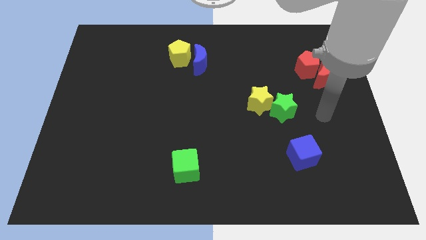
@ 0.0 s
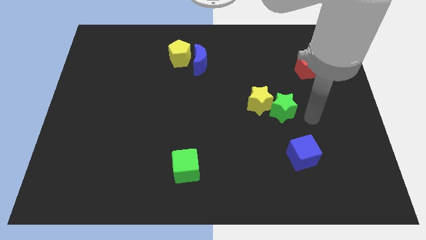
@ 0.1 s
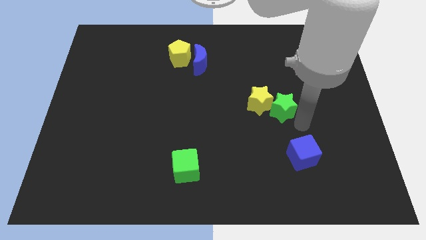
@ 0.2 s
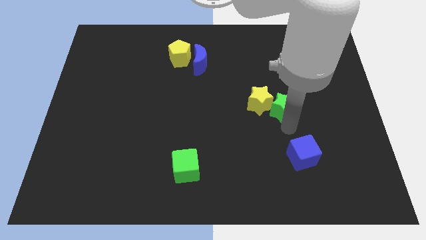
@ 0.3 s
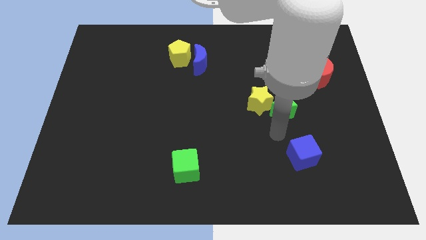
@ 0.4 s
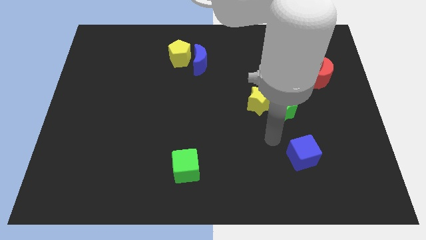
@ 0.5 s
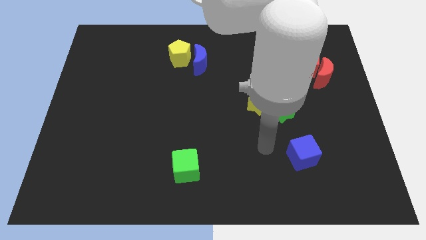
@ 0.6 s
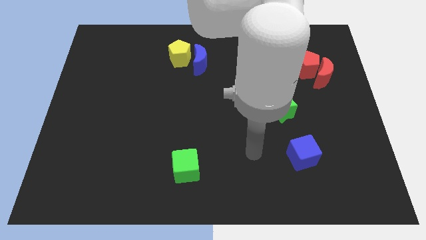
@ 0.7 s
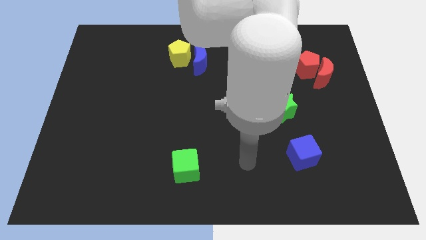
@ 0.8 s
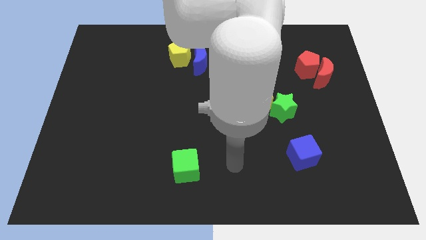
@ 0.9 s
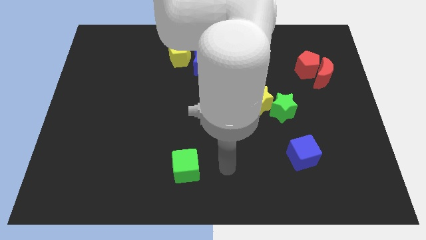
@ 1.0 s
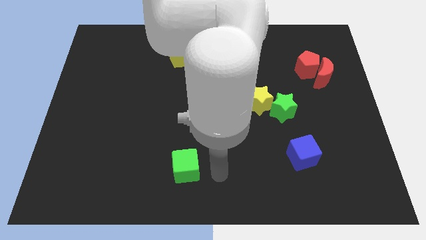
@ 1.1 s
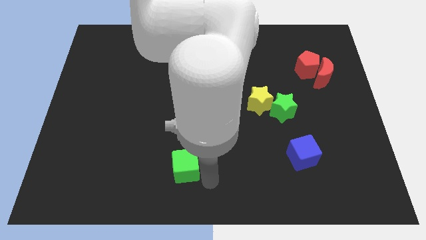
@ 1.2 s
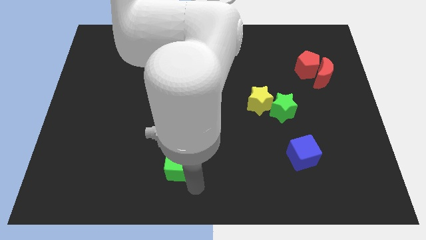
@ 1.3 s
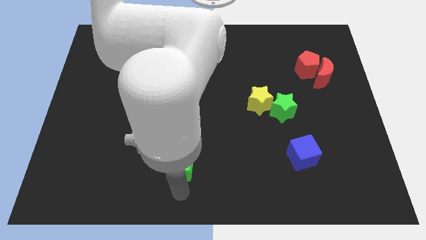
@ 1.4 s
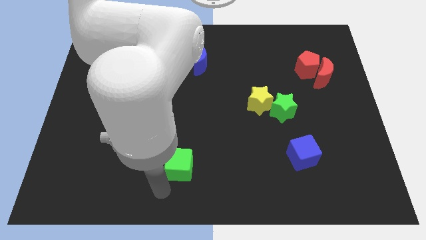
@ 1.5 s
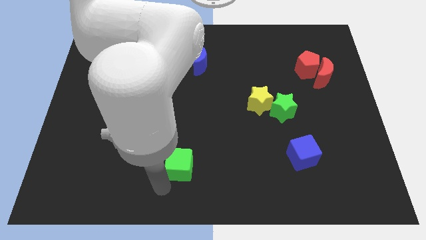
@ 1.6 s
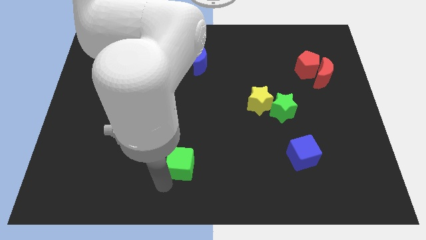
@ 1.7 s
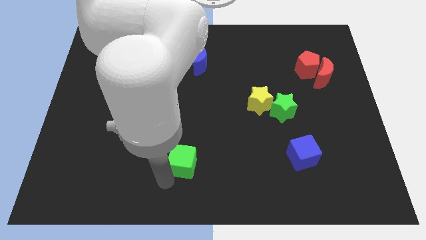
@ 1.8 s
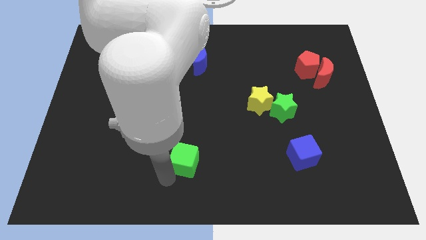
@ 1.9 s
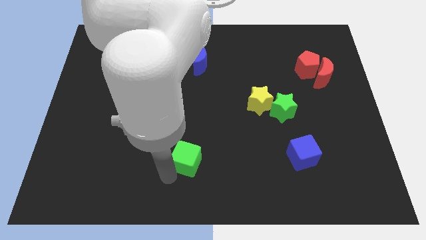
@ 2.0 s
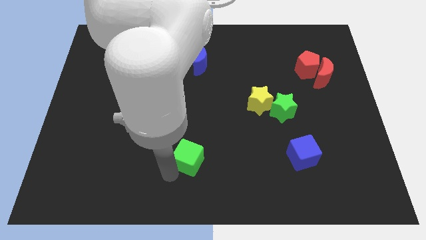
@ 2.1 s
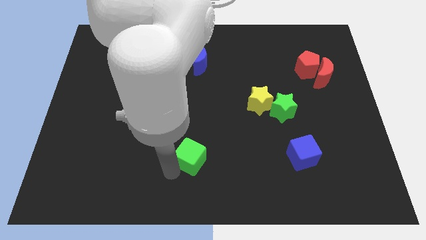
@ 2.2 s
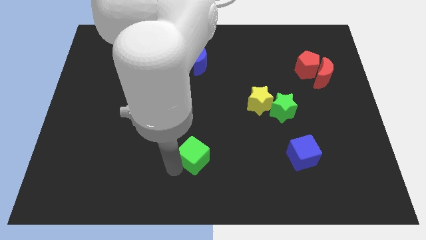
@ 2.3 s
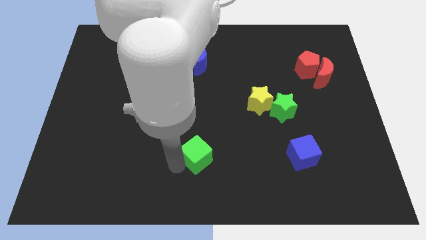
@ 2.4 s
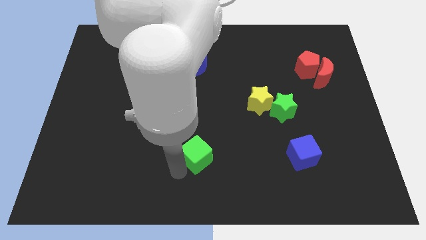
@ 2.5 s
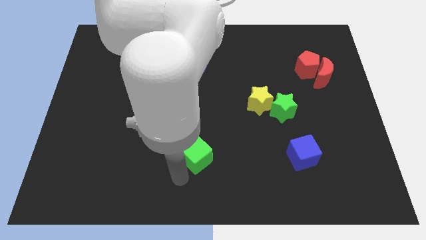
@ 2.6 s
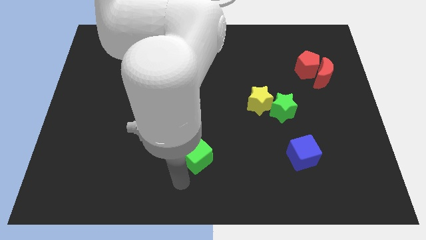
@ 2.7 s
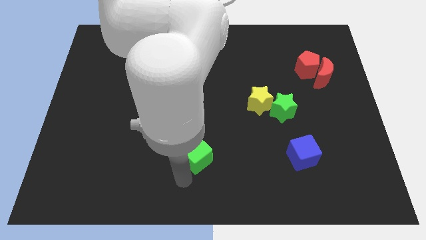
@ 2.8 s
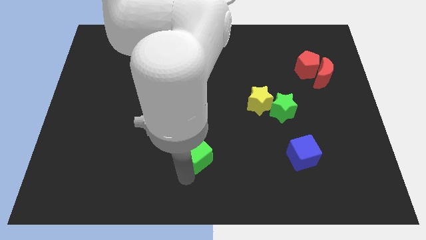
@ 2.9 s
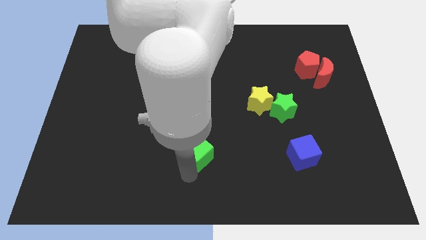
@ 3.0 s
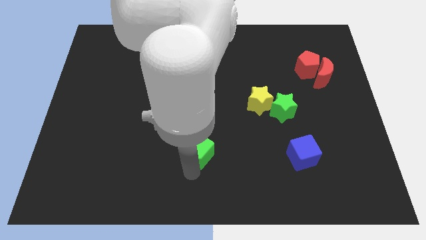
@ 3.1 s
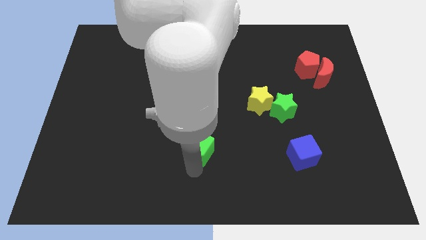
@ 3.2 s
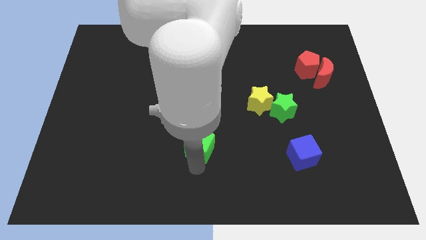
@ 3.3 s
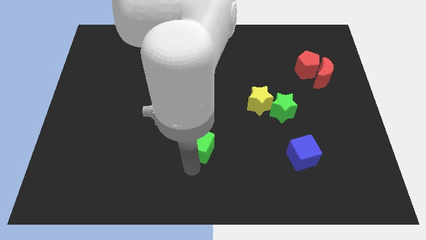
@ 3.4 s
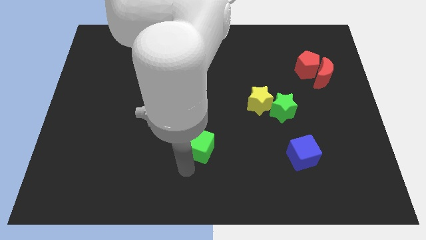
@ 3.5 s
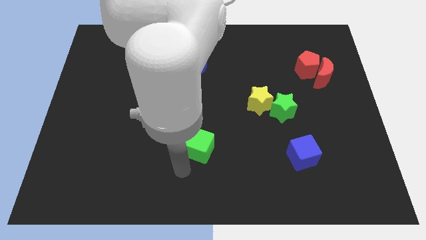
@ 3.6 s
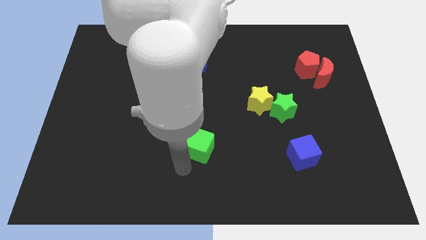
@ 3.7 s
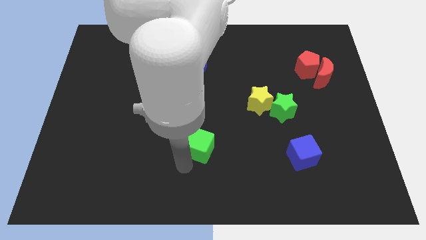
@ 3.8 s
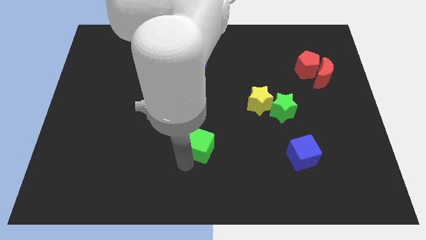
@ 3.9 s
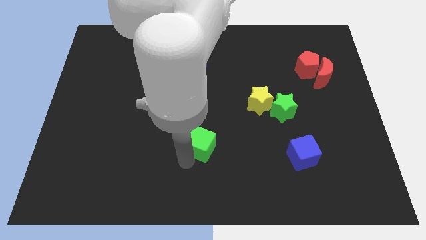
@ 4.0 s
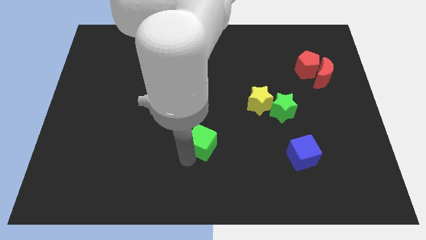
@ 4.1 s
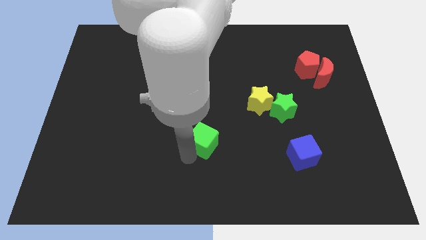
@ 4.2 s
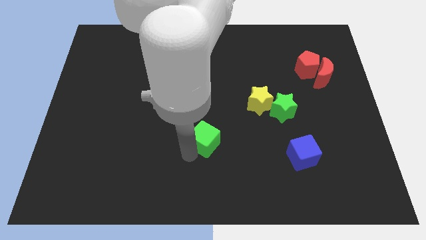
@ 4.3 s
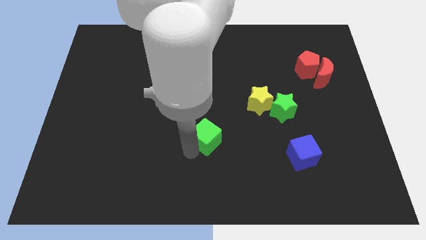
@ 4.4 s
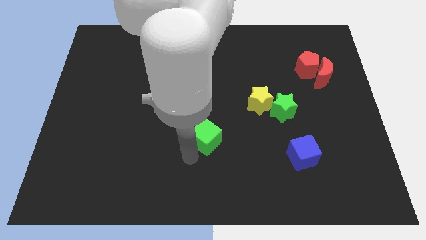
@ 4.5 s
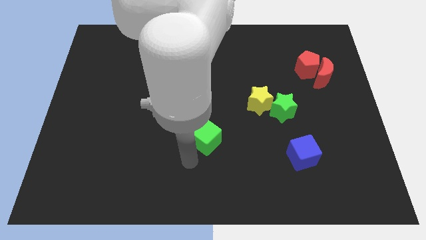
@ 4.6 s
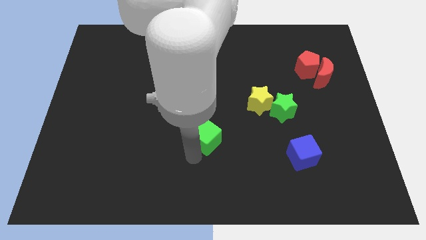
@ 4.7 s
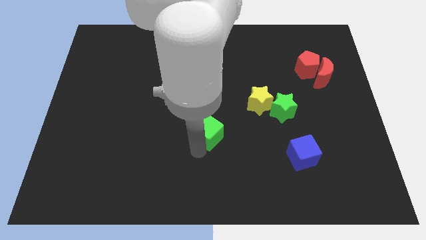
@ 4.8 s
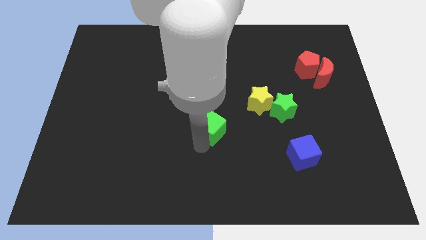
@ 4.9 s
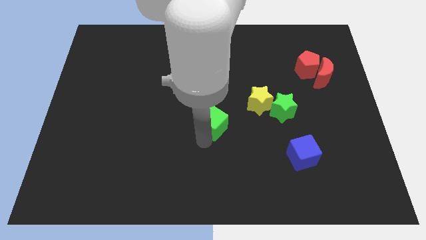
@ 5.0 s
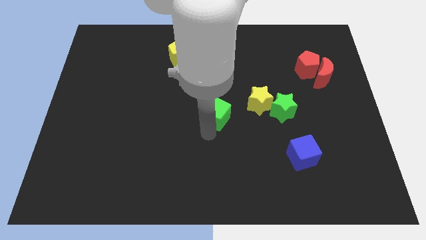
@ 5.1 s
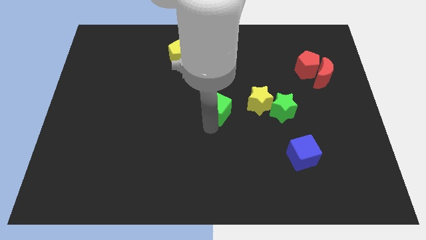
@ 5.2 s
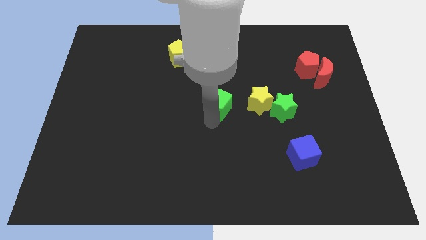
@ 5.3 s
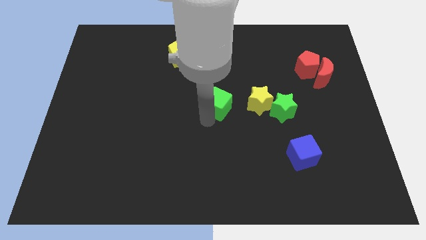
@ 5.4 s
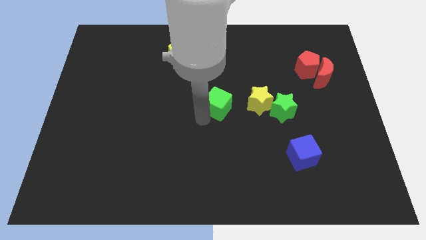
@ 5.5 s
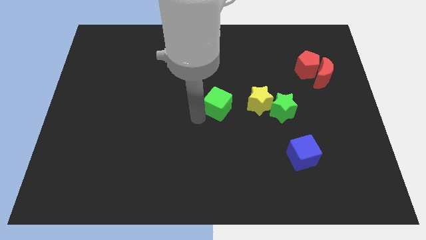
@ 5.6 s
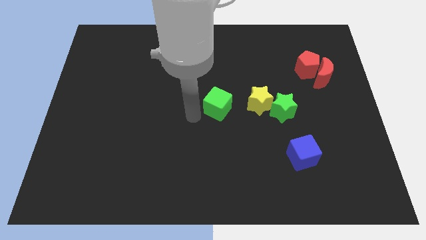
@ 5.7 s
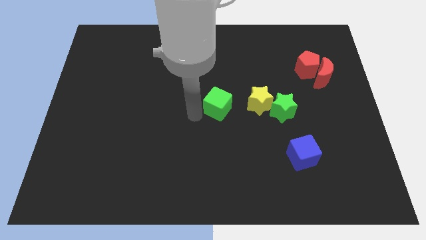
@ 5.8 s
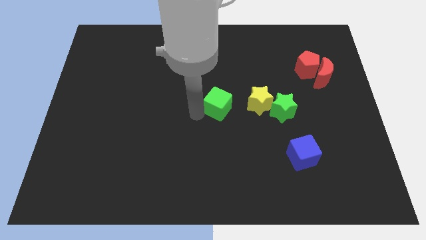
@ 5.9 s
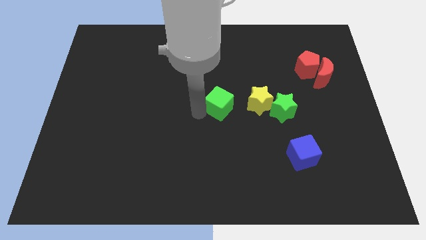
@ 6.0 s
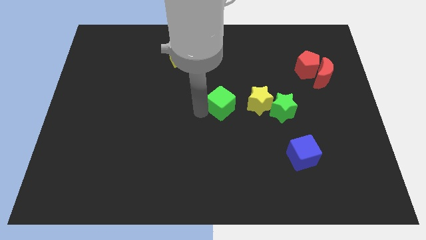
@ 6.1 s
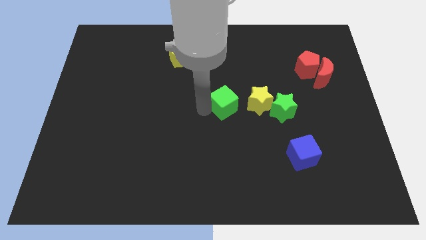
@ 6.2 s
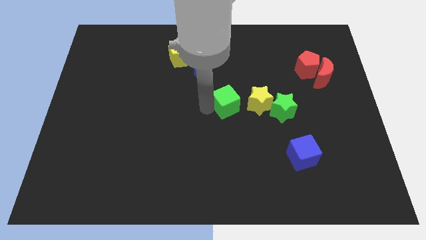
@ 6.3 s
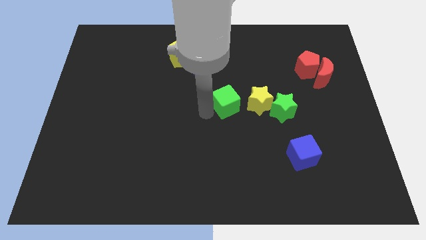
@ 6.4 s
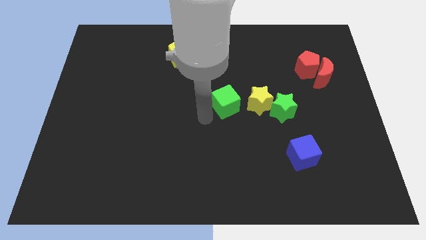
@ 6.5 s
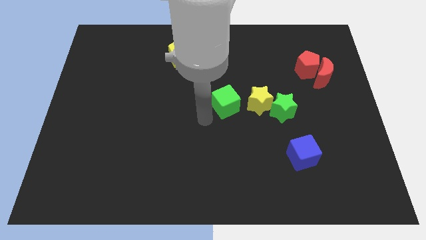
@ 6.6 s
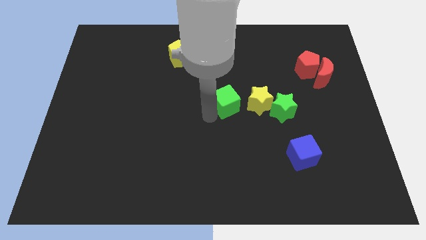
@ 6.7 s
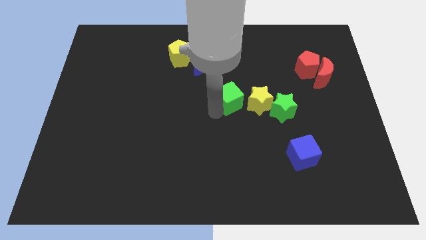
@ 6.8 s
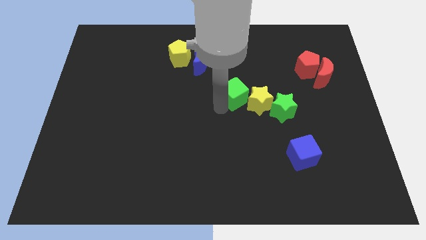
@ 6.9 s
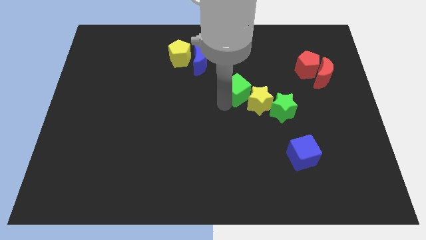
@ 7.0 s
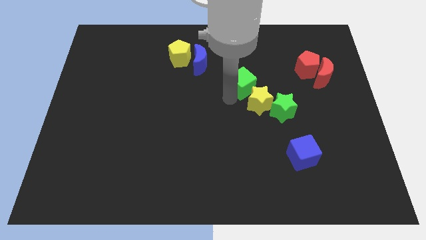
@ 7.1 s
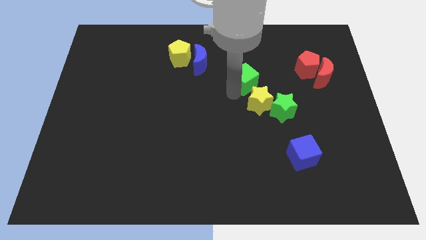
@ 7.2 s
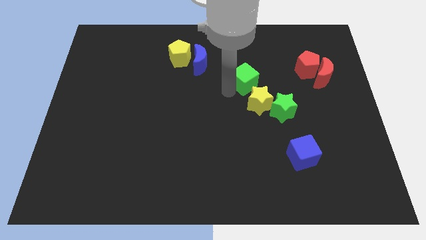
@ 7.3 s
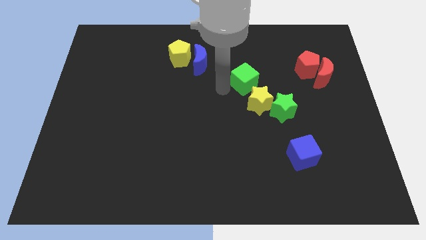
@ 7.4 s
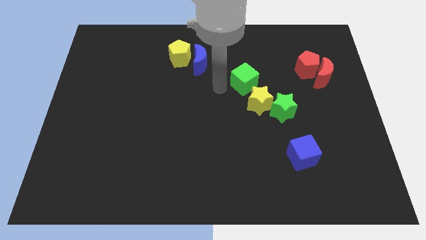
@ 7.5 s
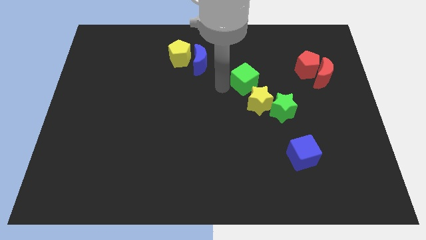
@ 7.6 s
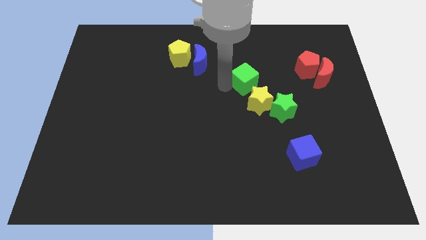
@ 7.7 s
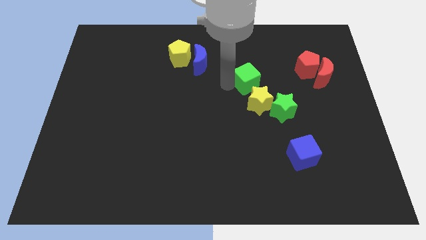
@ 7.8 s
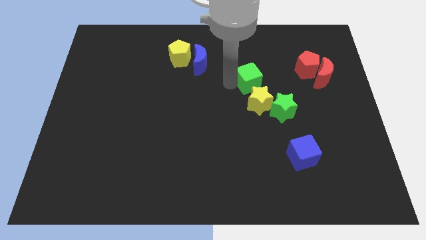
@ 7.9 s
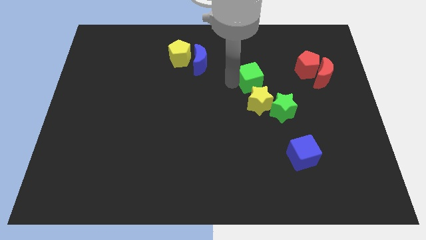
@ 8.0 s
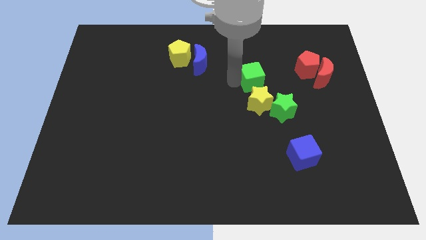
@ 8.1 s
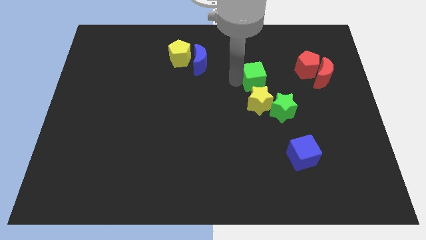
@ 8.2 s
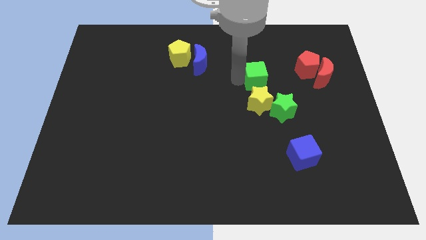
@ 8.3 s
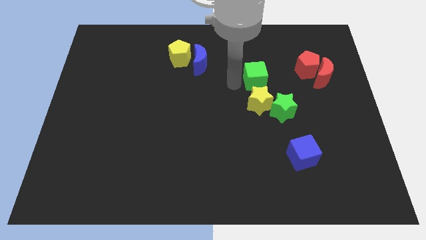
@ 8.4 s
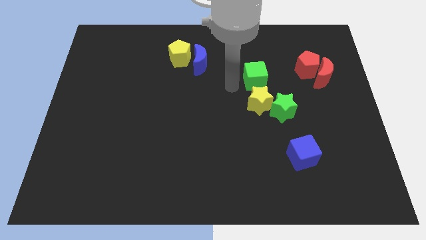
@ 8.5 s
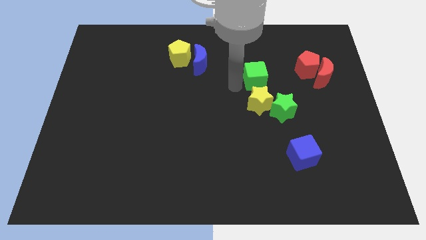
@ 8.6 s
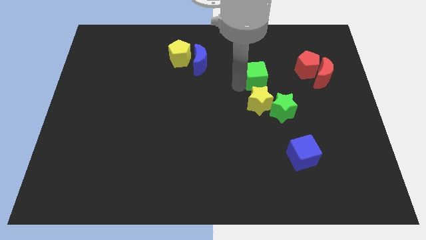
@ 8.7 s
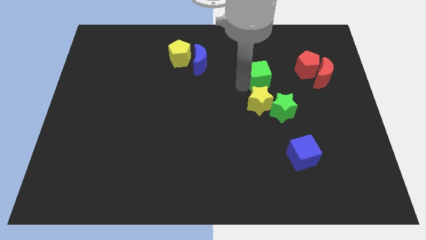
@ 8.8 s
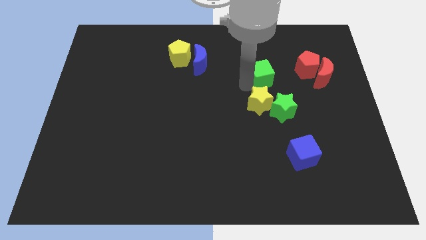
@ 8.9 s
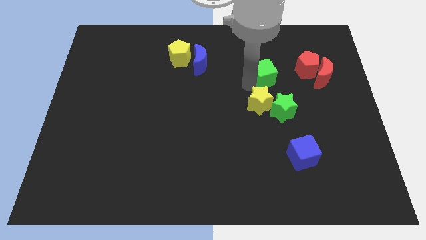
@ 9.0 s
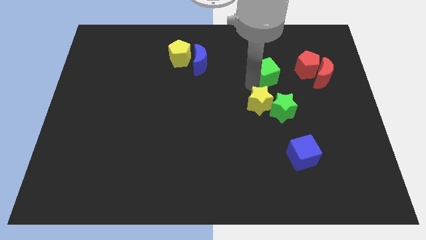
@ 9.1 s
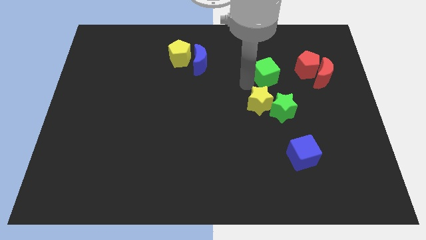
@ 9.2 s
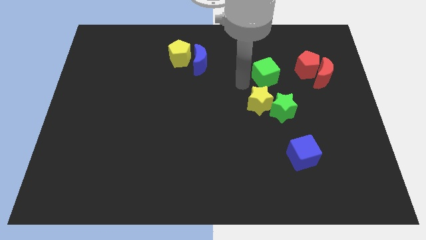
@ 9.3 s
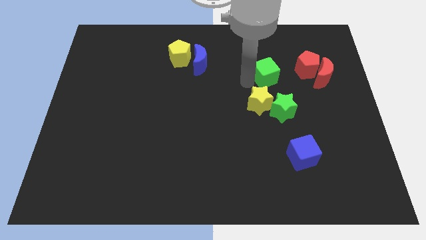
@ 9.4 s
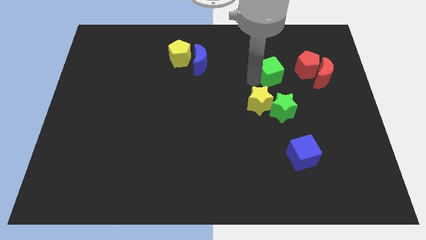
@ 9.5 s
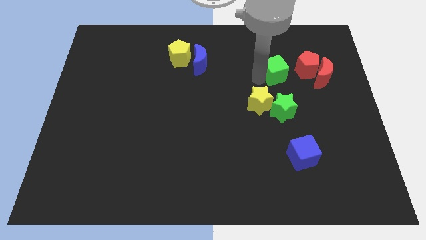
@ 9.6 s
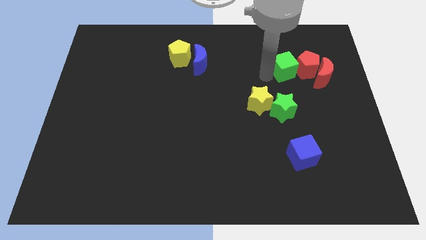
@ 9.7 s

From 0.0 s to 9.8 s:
push the green cube towards the red pentagon
